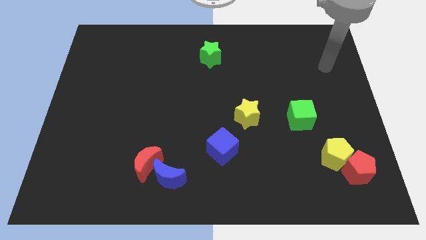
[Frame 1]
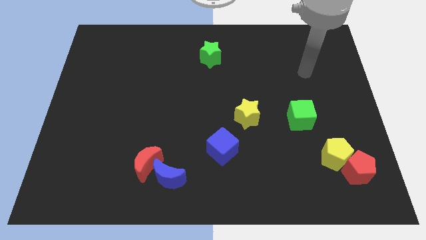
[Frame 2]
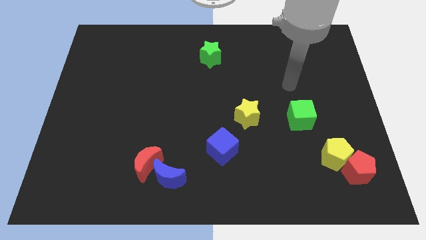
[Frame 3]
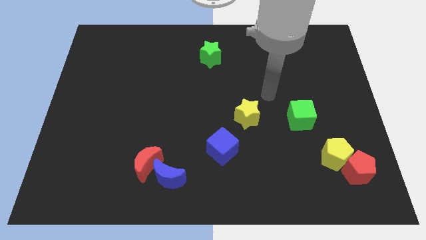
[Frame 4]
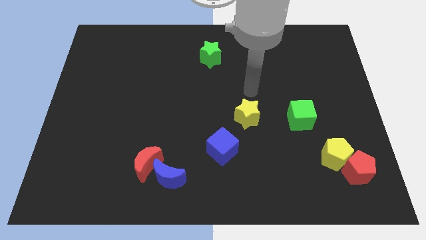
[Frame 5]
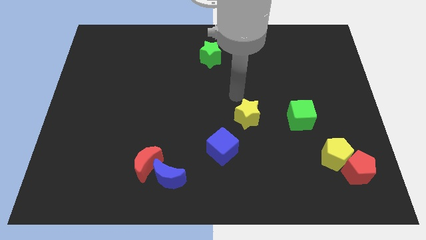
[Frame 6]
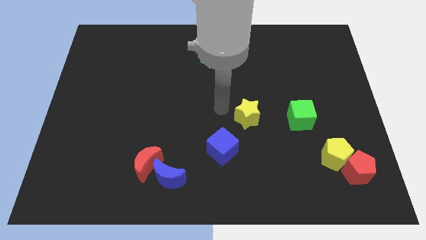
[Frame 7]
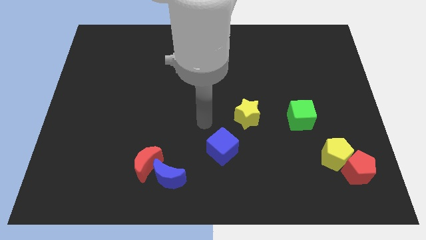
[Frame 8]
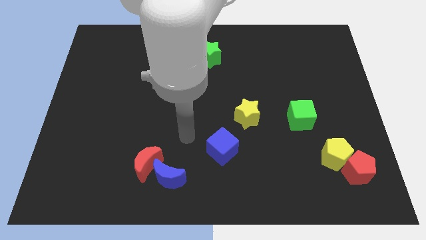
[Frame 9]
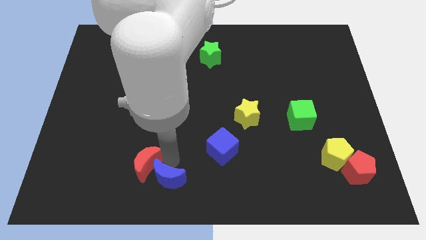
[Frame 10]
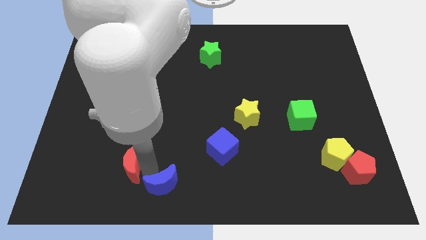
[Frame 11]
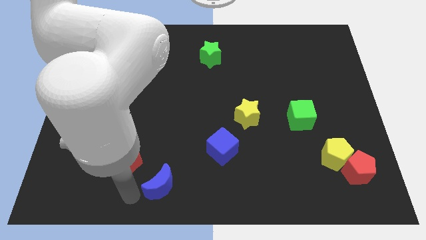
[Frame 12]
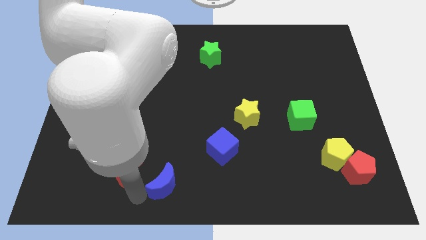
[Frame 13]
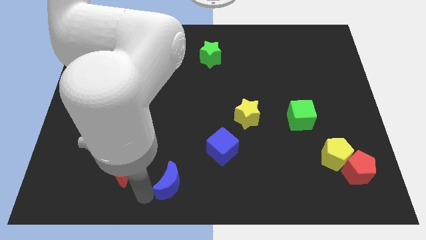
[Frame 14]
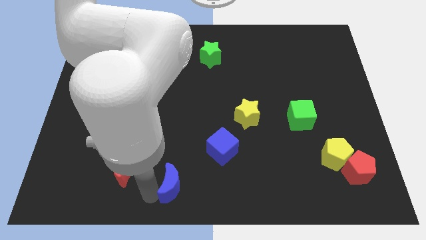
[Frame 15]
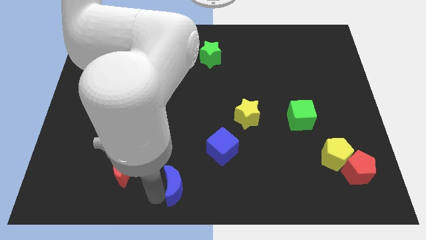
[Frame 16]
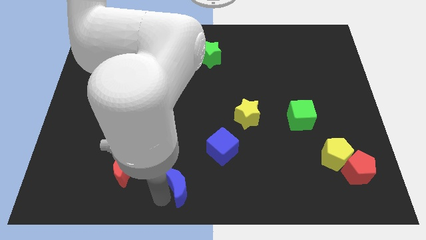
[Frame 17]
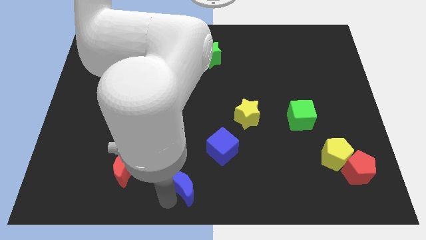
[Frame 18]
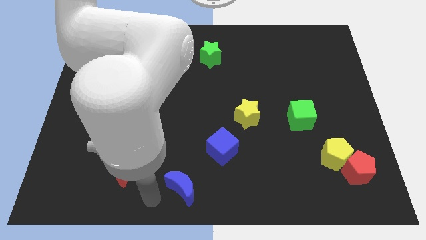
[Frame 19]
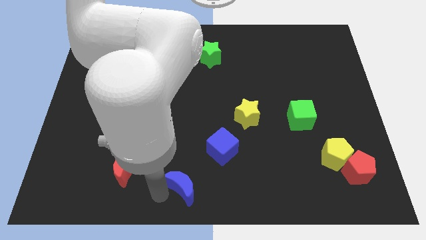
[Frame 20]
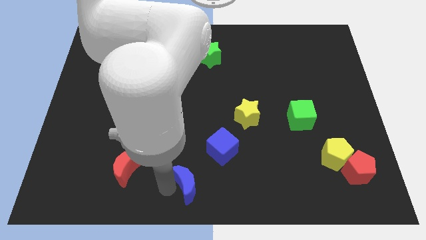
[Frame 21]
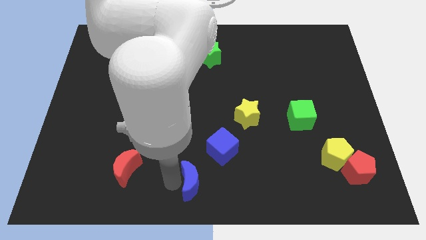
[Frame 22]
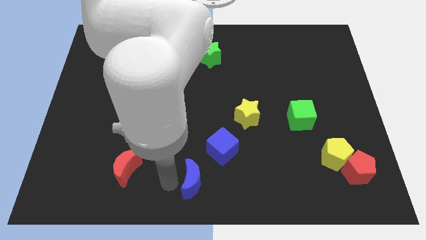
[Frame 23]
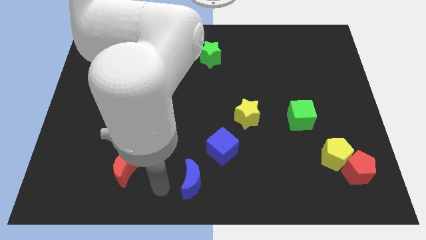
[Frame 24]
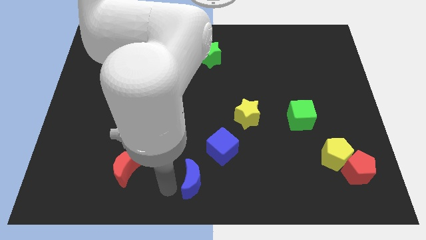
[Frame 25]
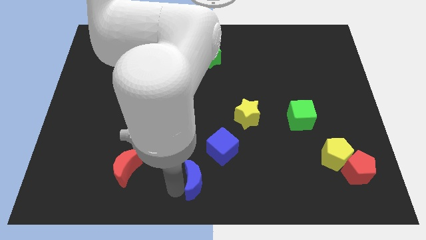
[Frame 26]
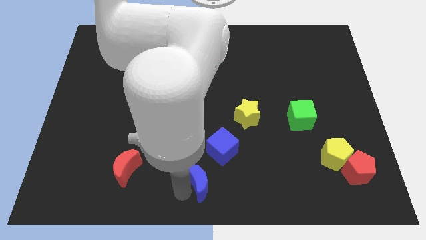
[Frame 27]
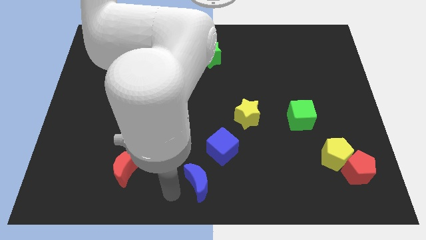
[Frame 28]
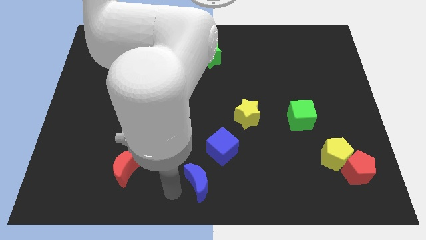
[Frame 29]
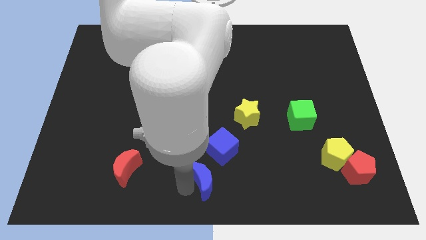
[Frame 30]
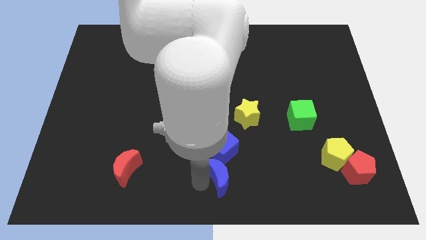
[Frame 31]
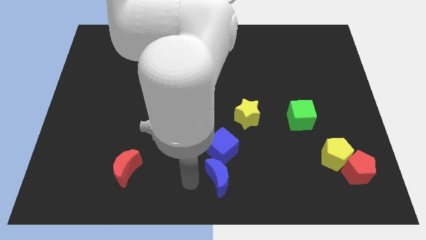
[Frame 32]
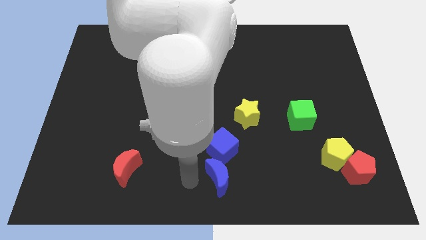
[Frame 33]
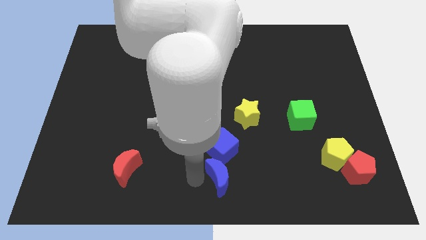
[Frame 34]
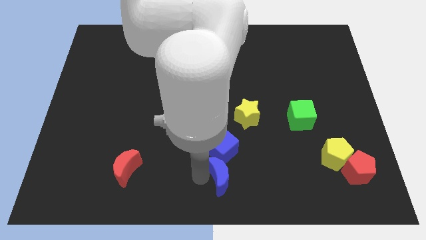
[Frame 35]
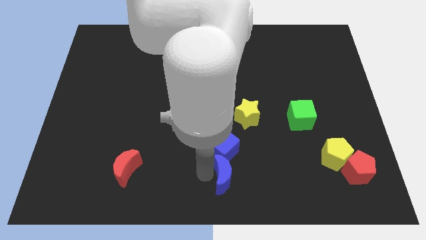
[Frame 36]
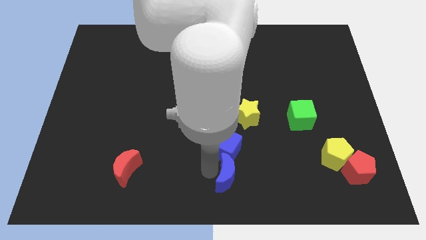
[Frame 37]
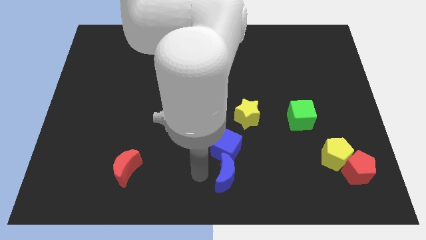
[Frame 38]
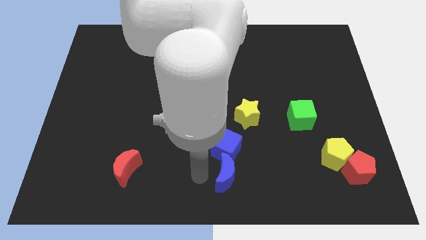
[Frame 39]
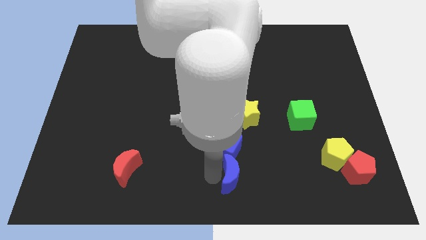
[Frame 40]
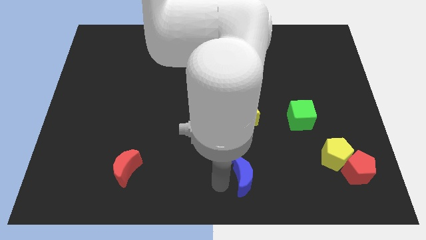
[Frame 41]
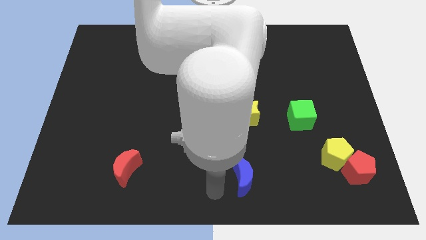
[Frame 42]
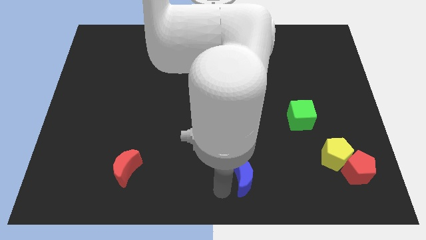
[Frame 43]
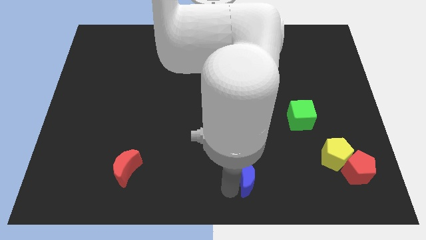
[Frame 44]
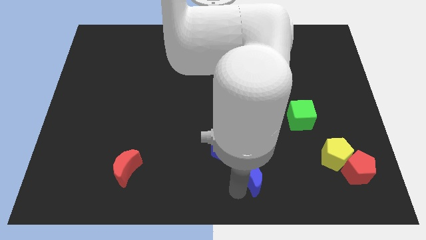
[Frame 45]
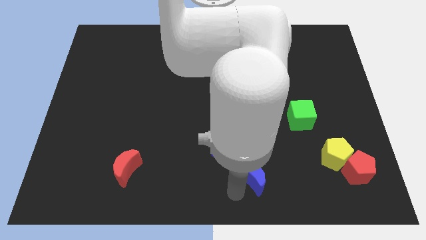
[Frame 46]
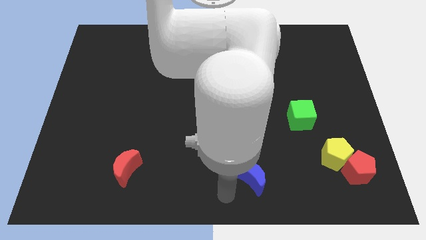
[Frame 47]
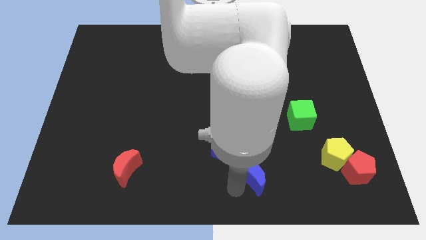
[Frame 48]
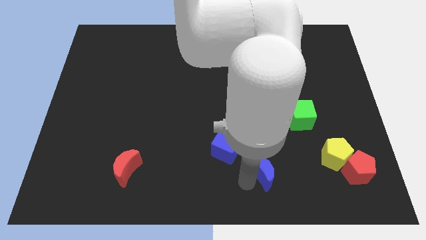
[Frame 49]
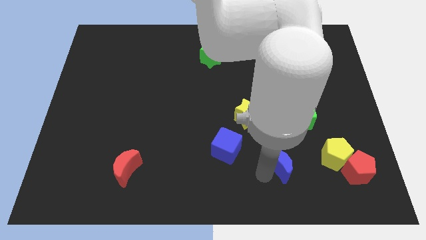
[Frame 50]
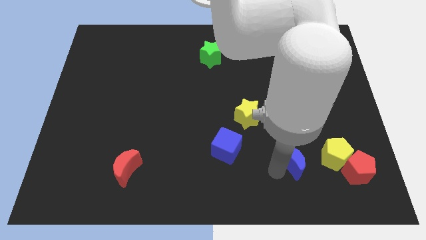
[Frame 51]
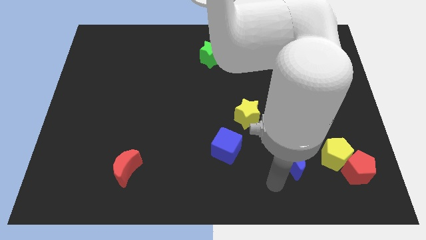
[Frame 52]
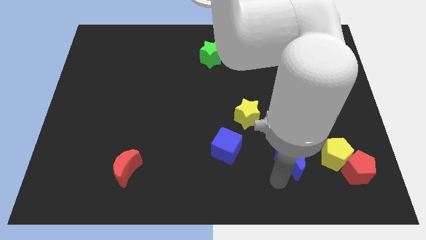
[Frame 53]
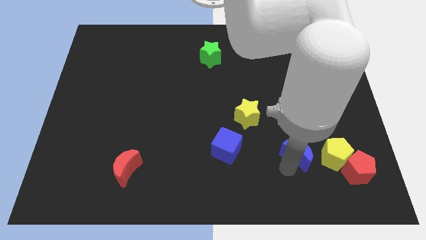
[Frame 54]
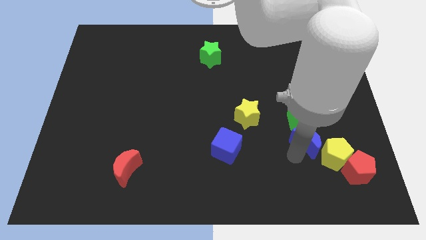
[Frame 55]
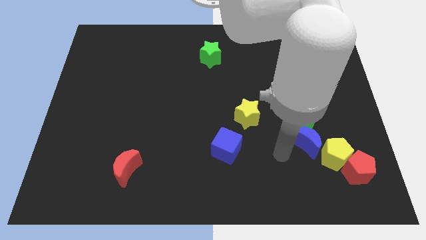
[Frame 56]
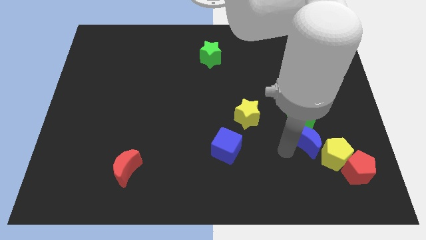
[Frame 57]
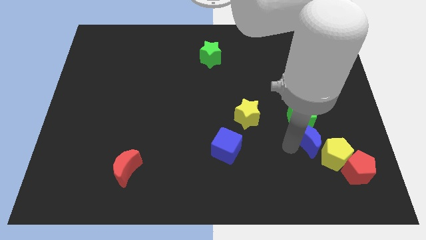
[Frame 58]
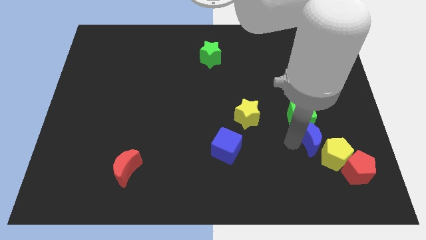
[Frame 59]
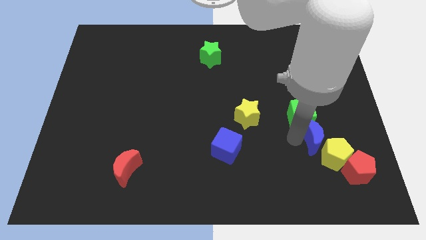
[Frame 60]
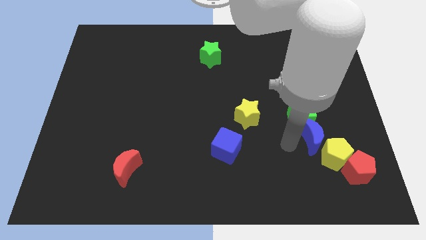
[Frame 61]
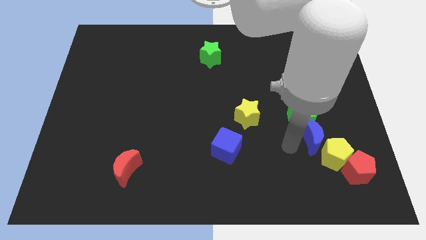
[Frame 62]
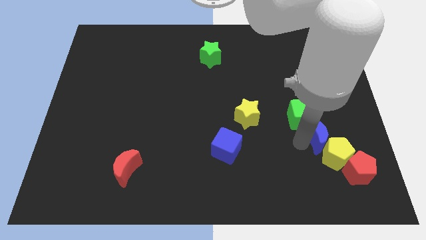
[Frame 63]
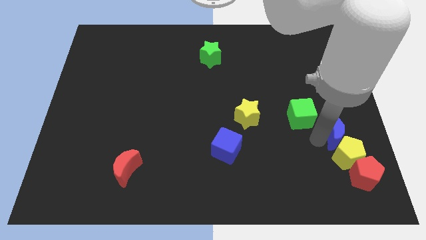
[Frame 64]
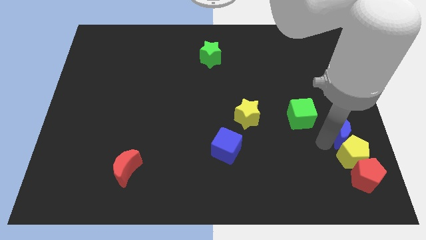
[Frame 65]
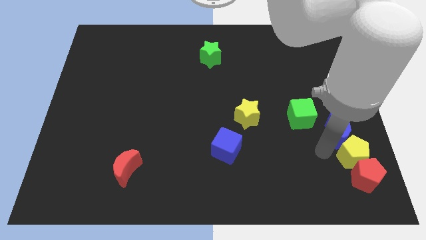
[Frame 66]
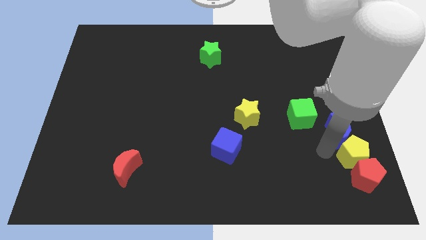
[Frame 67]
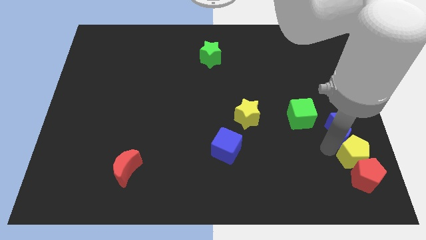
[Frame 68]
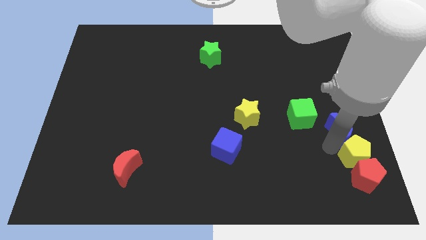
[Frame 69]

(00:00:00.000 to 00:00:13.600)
push the blue moon to the right side of the board
